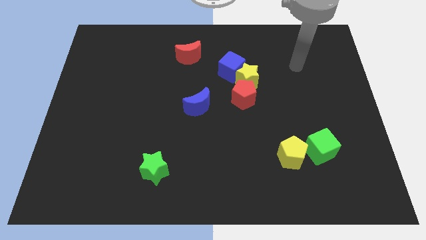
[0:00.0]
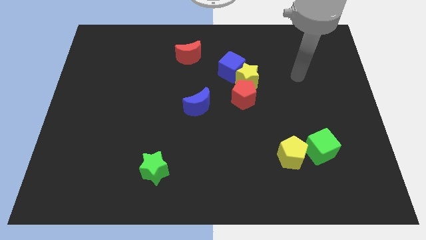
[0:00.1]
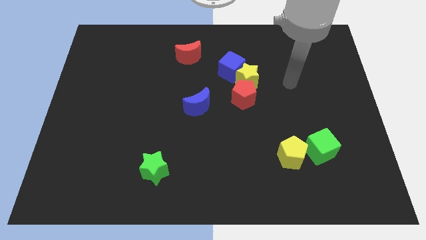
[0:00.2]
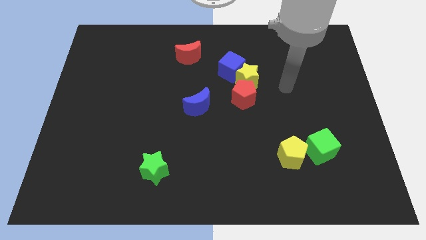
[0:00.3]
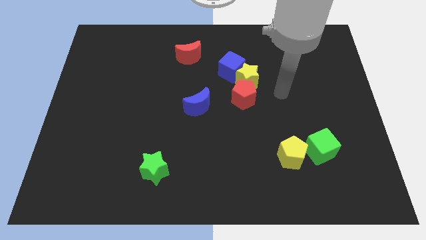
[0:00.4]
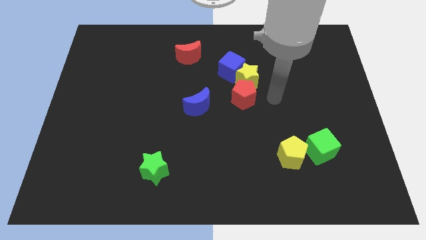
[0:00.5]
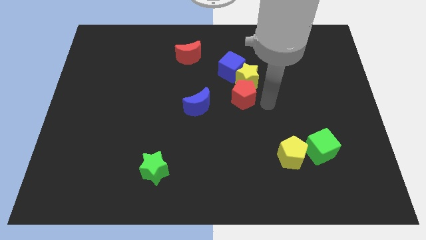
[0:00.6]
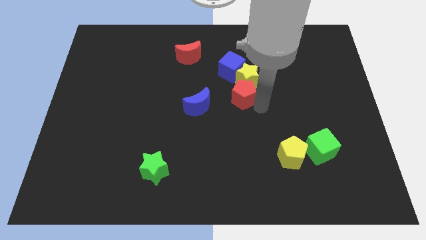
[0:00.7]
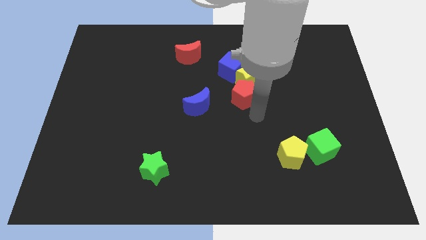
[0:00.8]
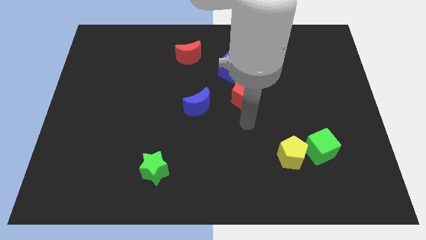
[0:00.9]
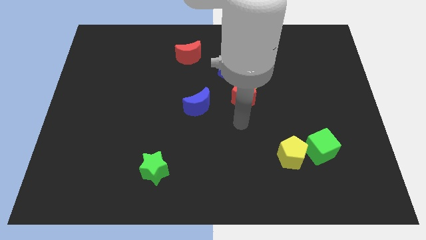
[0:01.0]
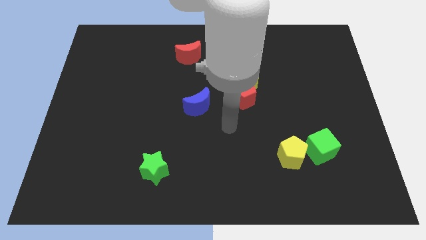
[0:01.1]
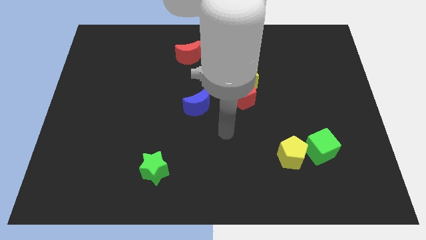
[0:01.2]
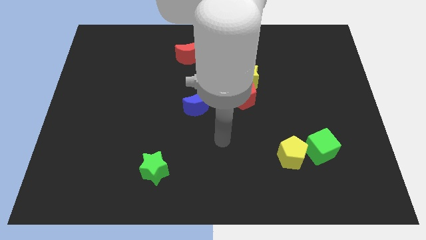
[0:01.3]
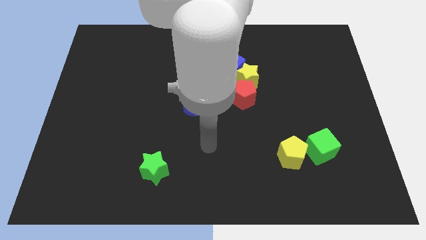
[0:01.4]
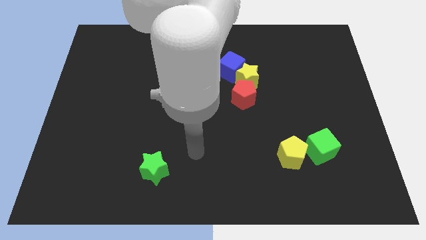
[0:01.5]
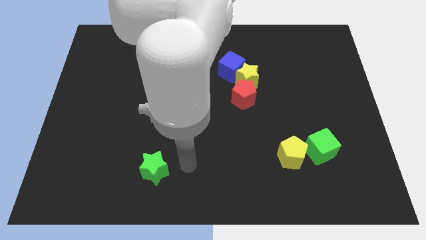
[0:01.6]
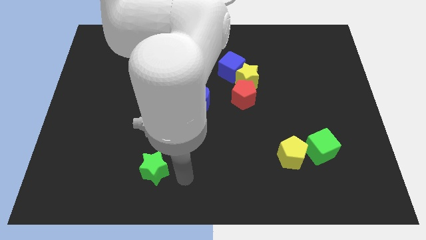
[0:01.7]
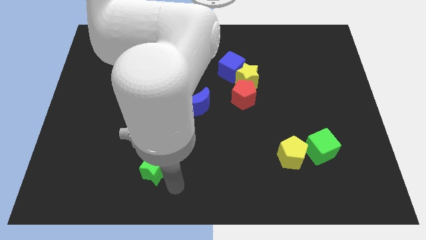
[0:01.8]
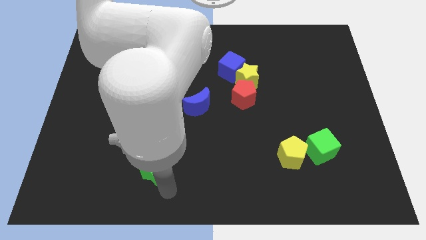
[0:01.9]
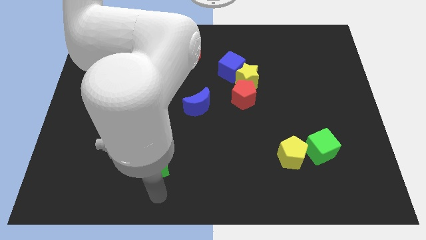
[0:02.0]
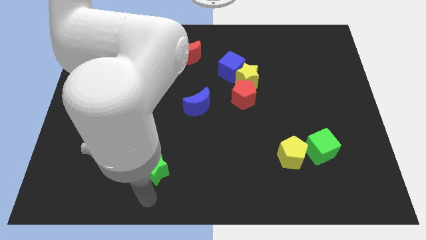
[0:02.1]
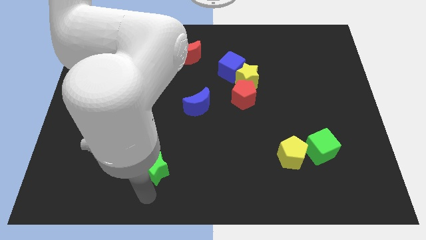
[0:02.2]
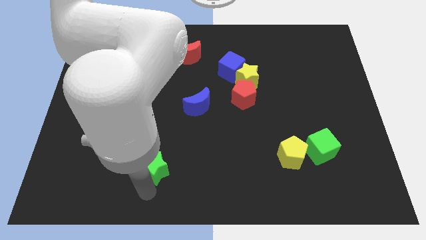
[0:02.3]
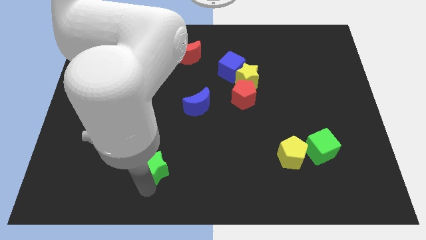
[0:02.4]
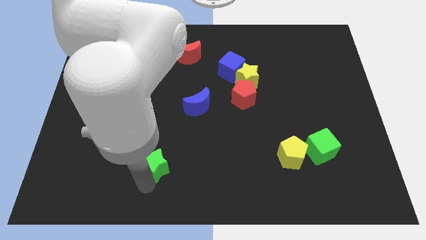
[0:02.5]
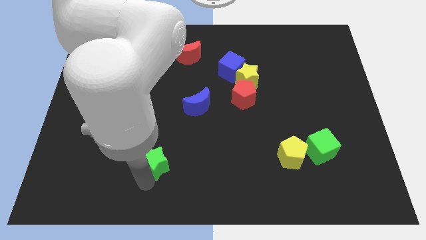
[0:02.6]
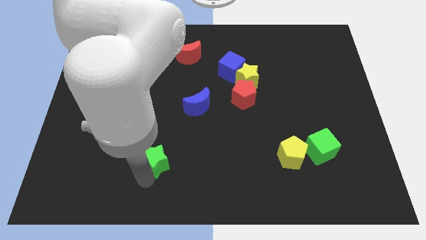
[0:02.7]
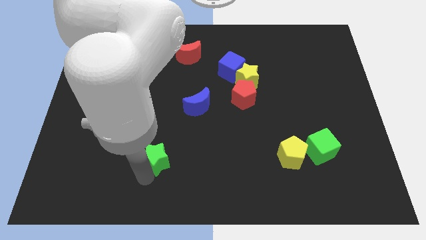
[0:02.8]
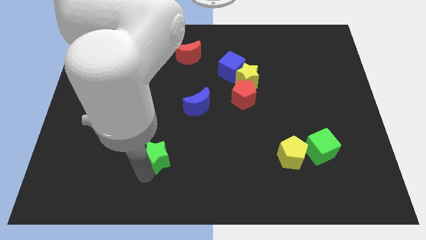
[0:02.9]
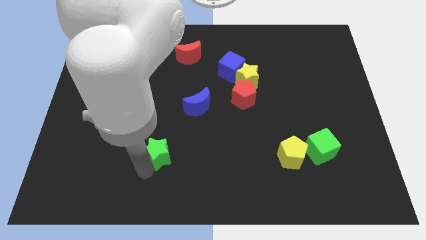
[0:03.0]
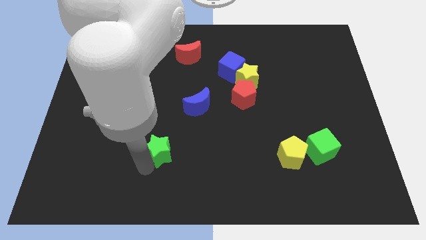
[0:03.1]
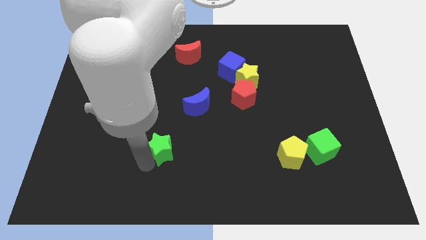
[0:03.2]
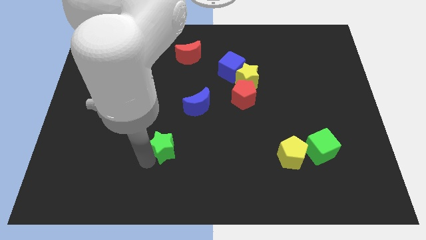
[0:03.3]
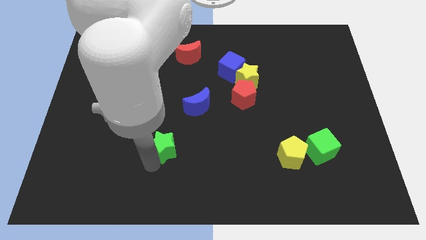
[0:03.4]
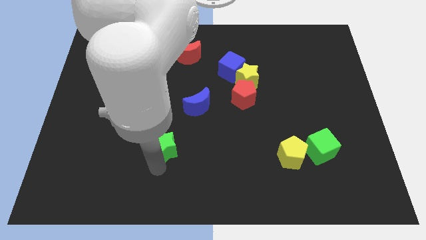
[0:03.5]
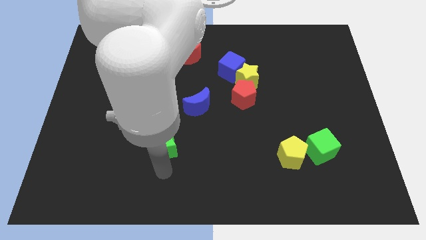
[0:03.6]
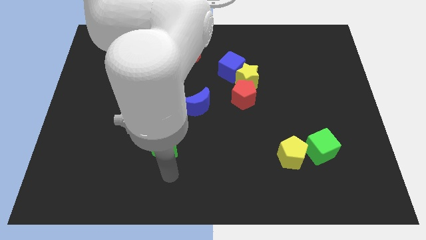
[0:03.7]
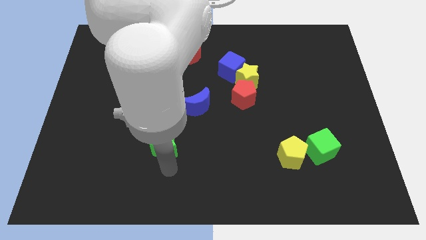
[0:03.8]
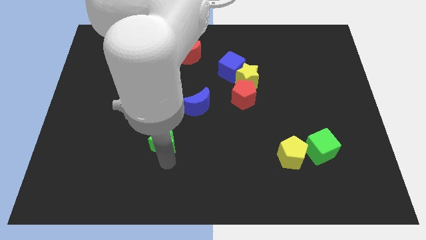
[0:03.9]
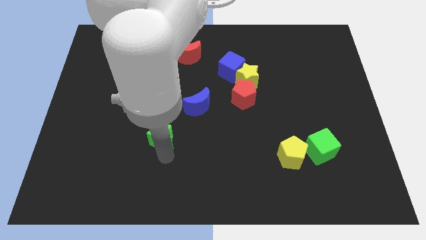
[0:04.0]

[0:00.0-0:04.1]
slightly move the green star upwards

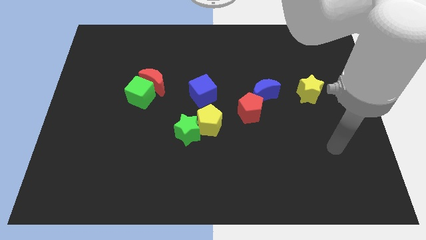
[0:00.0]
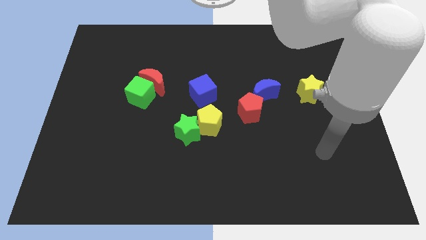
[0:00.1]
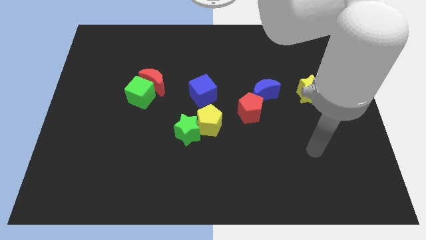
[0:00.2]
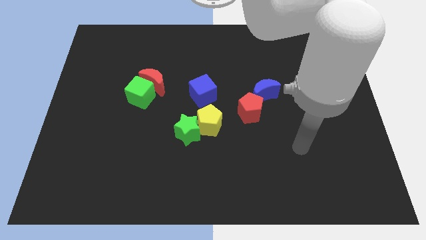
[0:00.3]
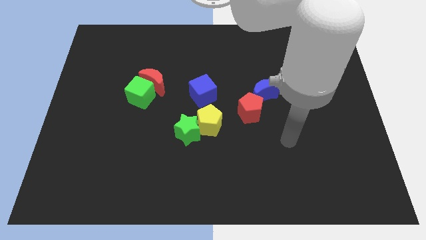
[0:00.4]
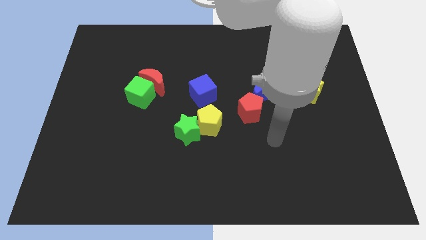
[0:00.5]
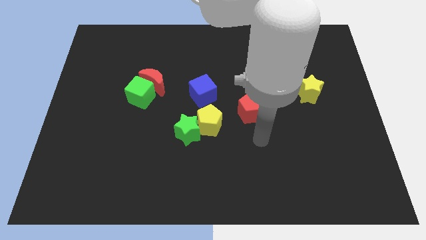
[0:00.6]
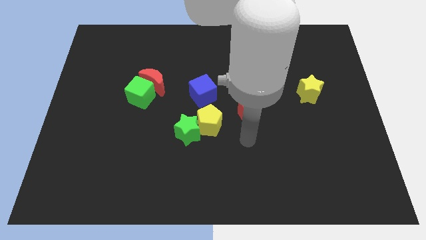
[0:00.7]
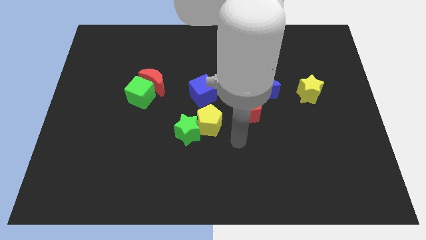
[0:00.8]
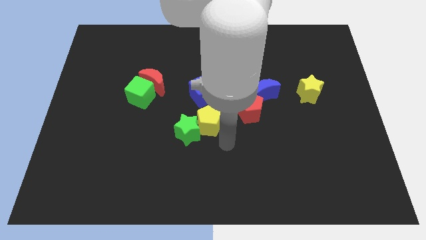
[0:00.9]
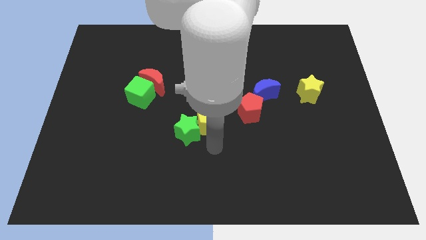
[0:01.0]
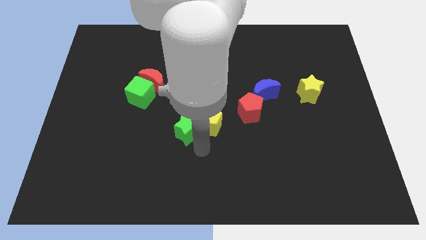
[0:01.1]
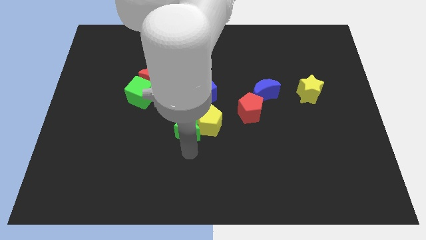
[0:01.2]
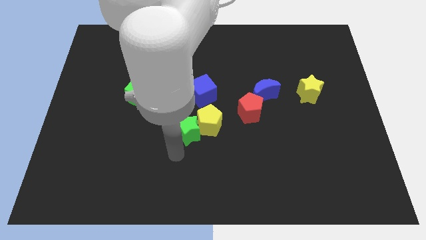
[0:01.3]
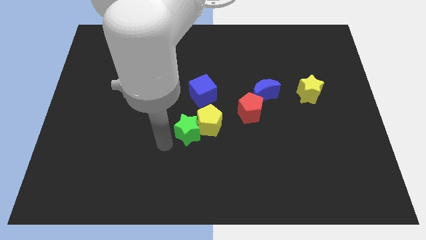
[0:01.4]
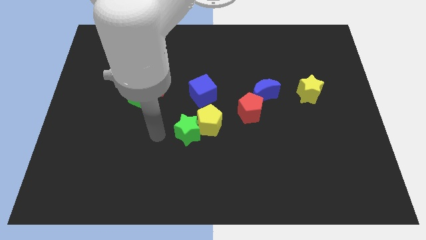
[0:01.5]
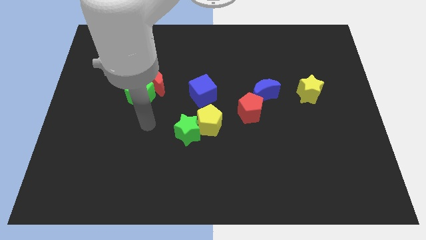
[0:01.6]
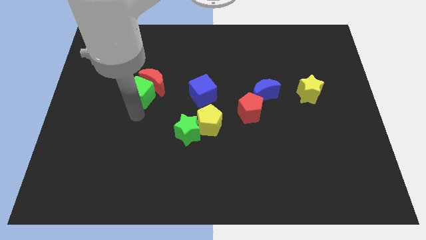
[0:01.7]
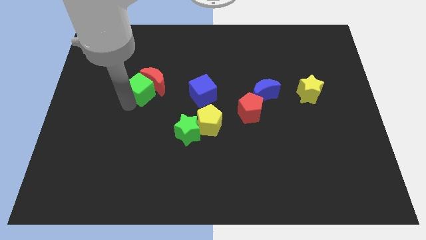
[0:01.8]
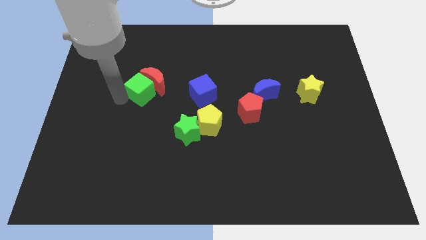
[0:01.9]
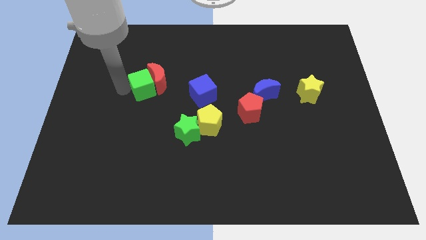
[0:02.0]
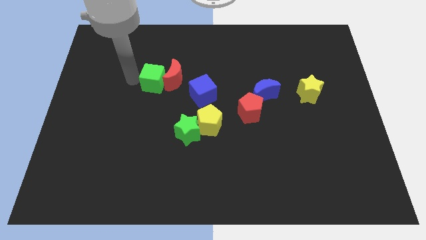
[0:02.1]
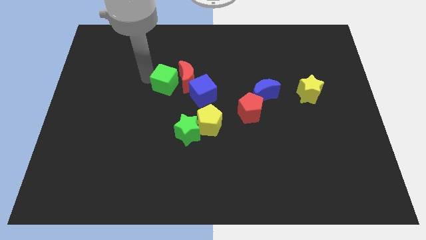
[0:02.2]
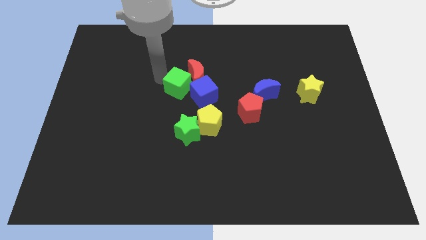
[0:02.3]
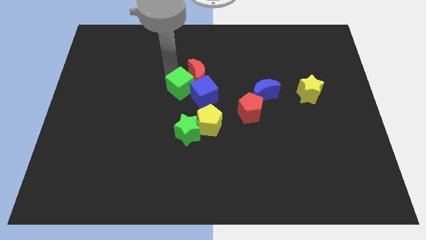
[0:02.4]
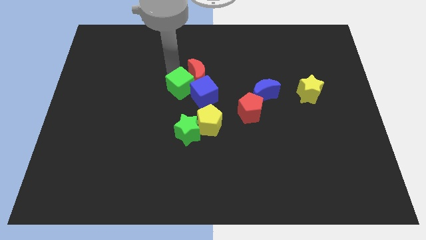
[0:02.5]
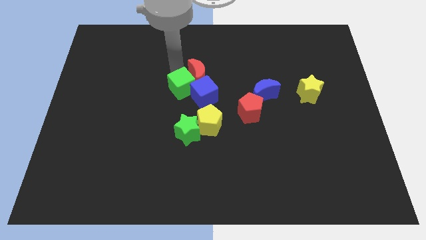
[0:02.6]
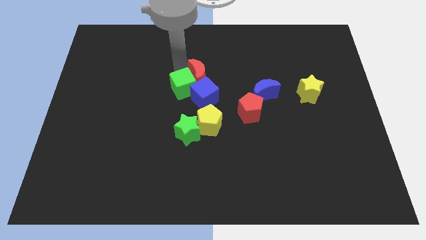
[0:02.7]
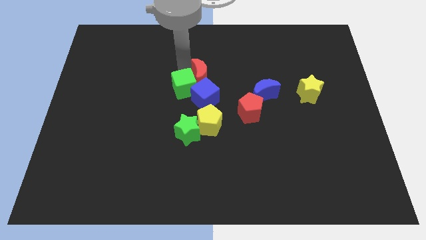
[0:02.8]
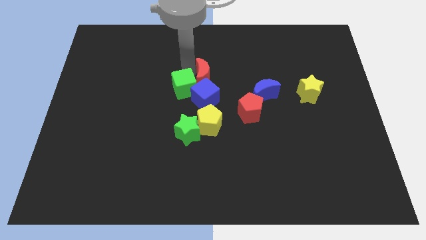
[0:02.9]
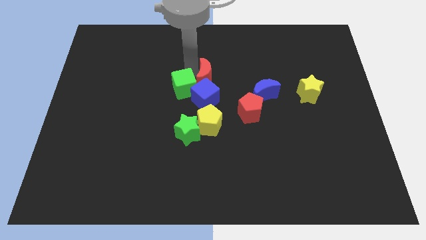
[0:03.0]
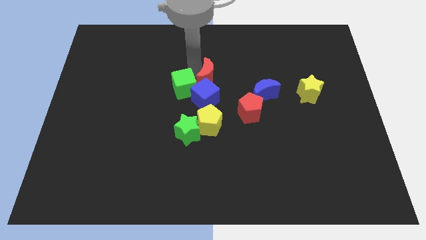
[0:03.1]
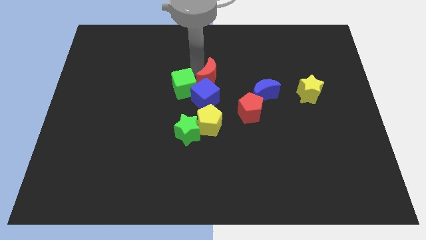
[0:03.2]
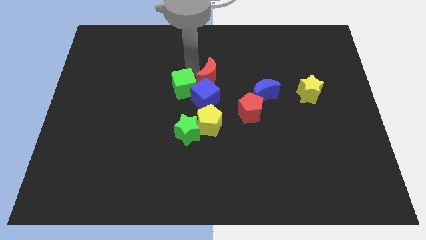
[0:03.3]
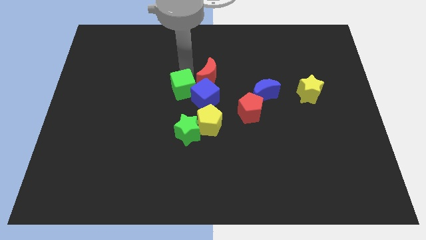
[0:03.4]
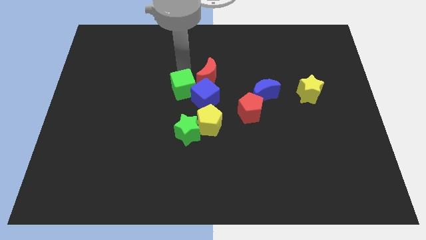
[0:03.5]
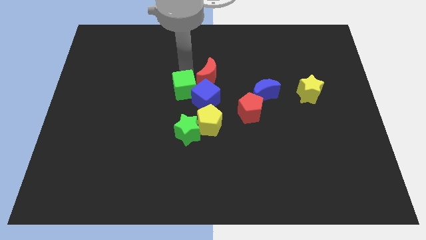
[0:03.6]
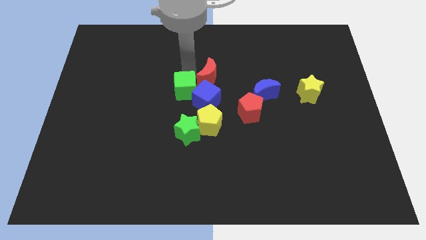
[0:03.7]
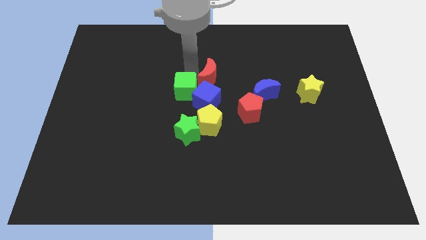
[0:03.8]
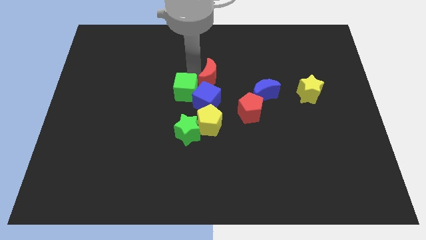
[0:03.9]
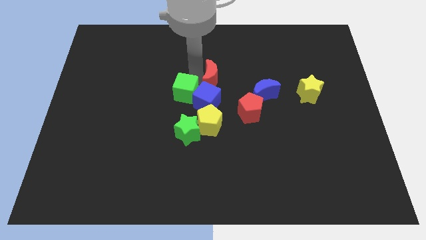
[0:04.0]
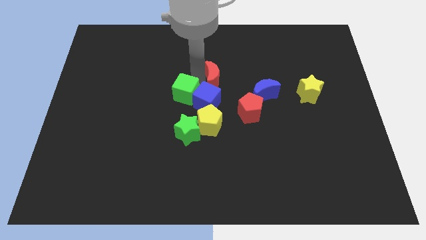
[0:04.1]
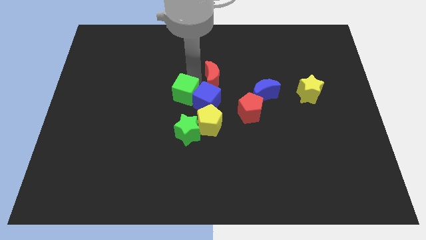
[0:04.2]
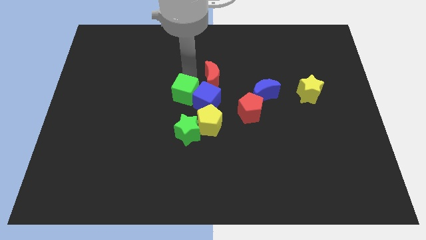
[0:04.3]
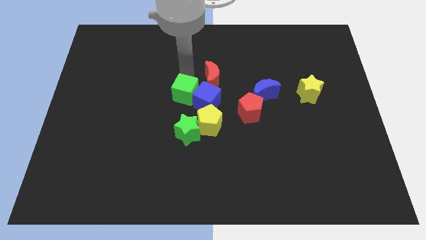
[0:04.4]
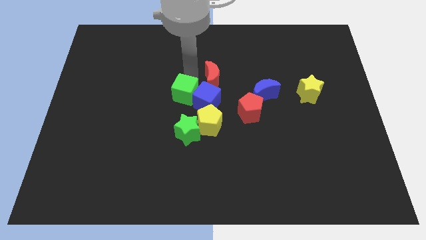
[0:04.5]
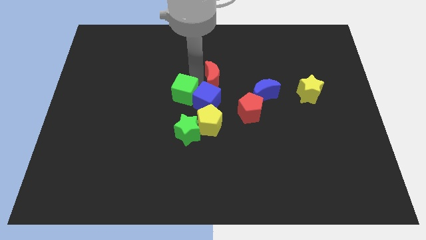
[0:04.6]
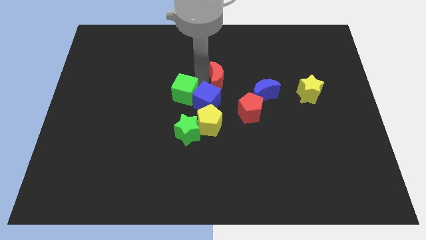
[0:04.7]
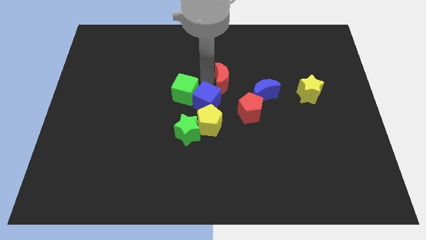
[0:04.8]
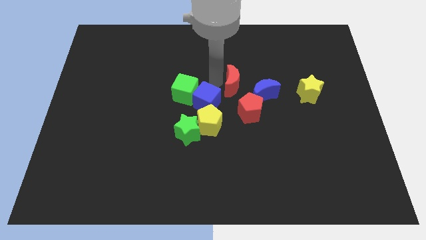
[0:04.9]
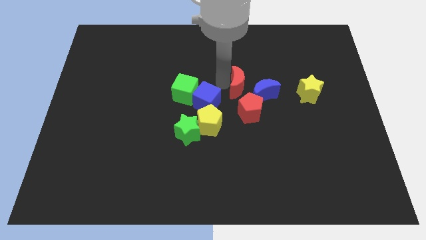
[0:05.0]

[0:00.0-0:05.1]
slide the red moon to the right
